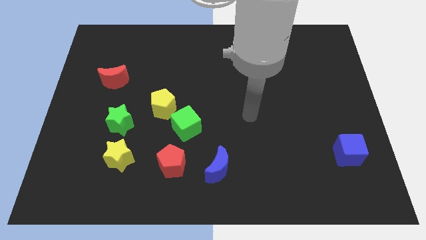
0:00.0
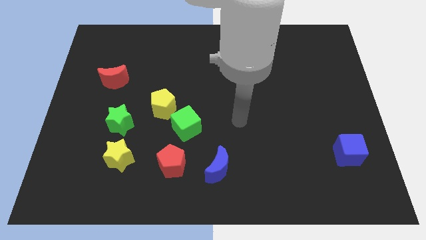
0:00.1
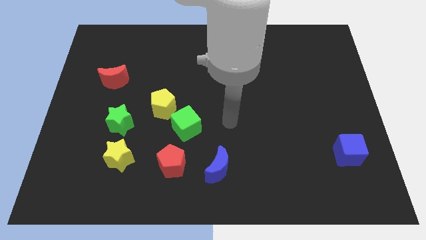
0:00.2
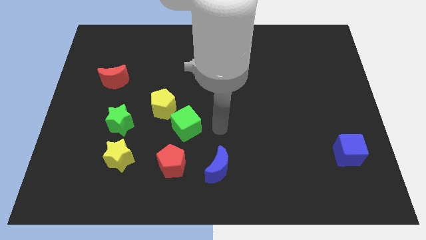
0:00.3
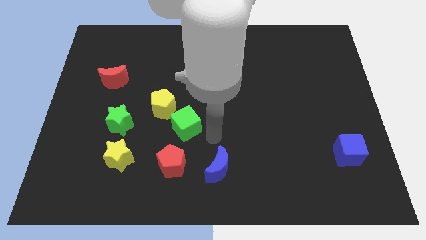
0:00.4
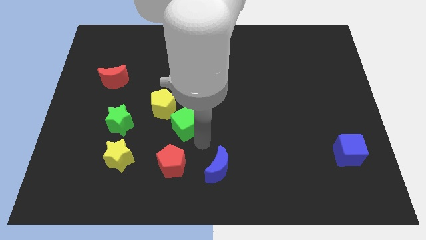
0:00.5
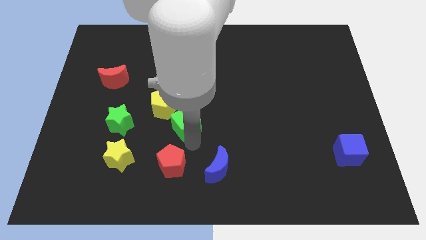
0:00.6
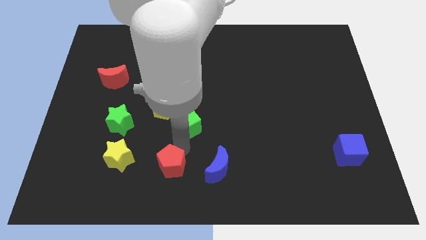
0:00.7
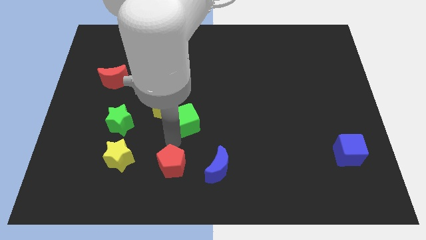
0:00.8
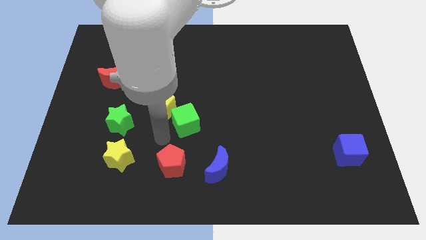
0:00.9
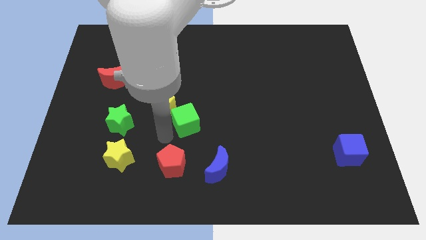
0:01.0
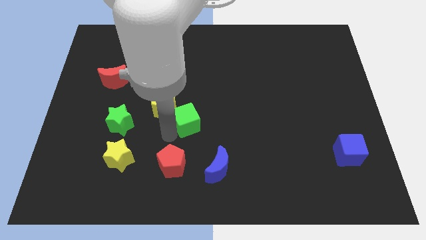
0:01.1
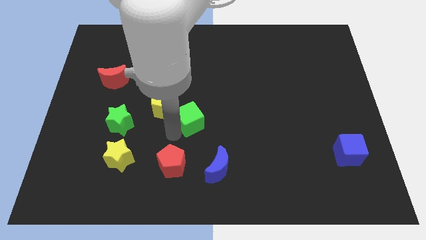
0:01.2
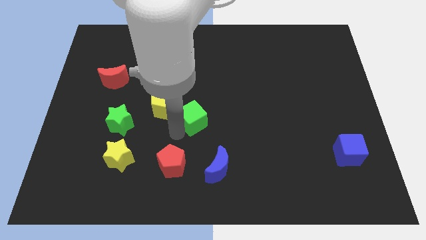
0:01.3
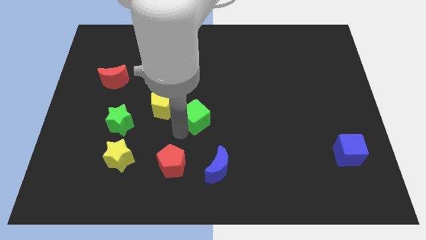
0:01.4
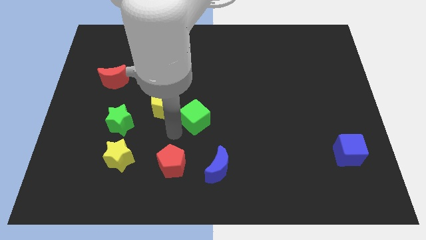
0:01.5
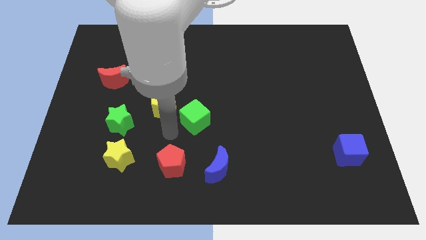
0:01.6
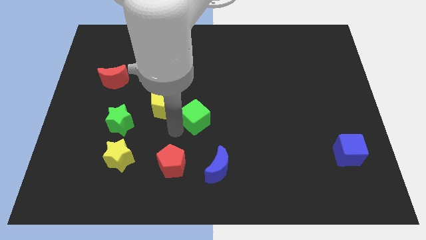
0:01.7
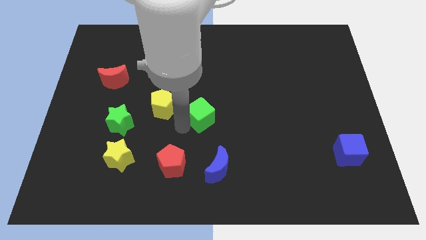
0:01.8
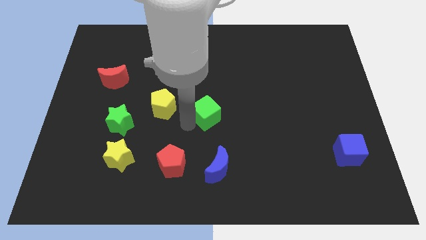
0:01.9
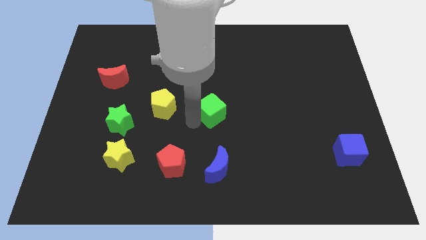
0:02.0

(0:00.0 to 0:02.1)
separate the green cube from the yellow pentagon and red pentagon

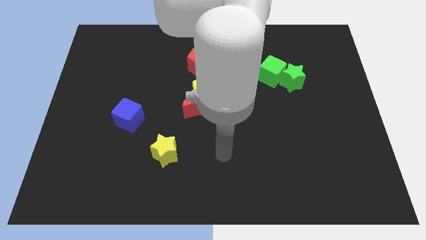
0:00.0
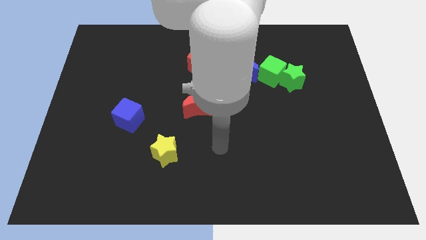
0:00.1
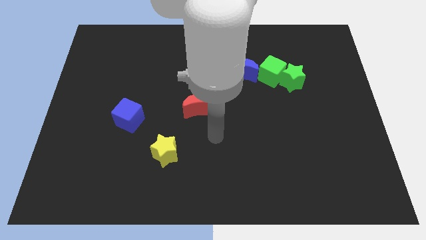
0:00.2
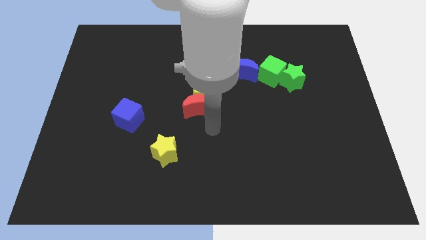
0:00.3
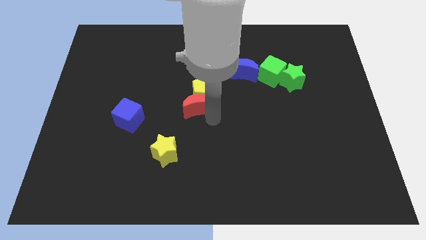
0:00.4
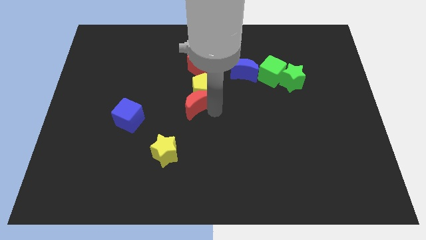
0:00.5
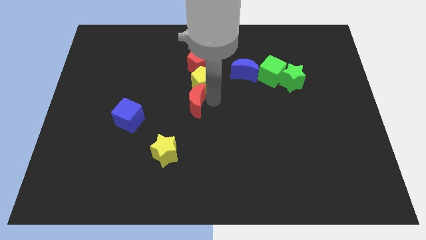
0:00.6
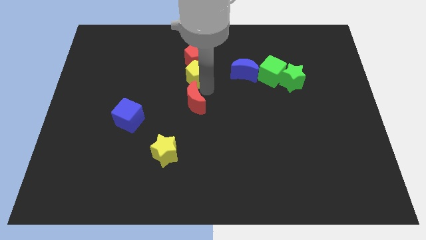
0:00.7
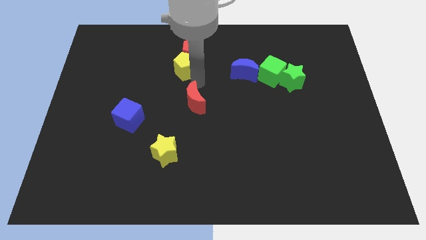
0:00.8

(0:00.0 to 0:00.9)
move the red moon away from the yellow pentagon

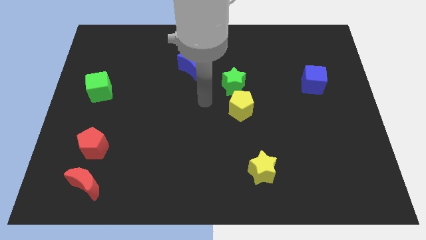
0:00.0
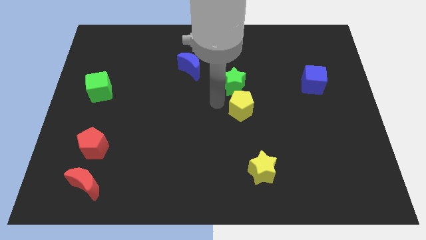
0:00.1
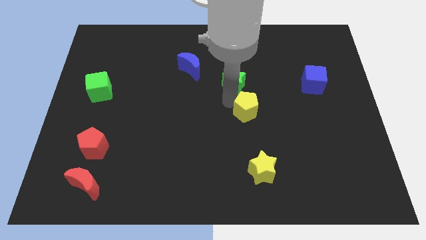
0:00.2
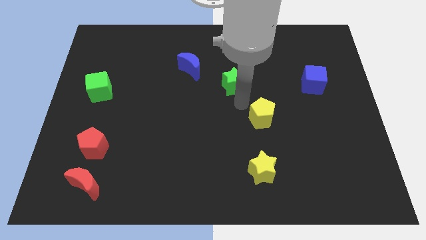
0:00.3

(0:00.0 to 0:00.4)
separate the green star from the yellow pentagon

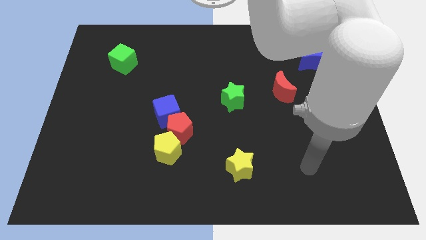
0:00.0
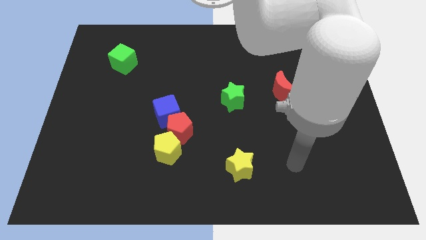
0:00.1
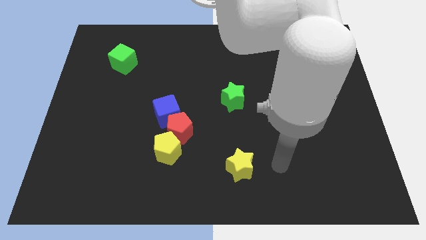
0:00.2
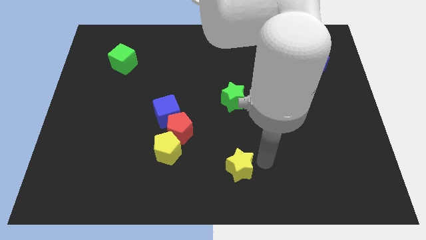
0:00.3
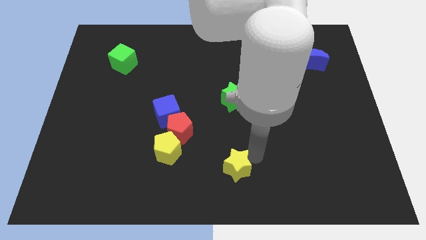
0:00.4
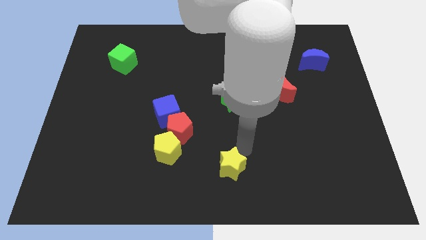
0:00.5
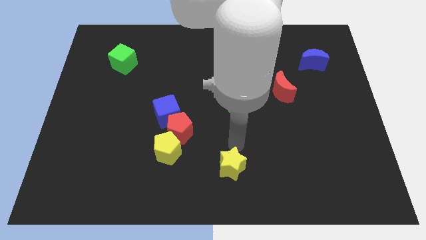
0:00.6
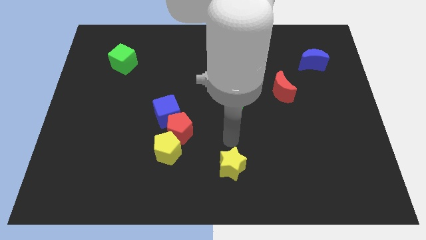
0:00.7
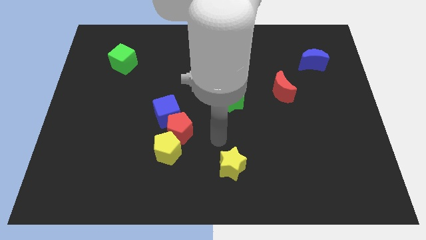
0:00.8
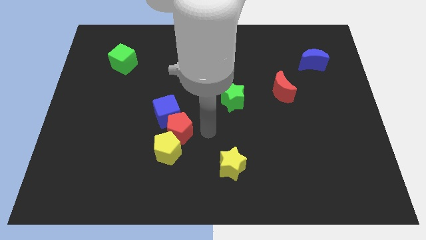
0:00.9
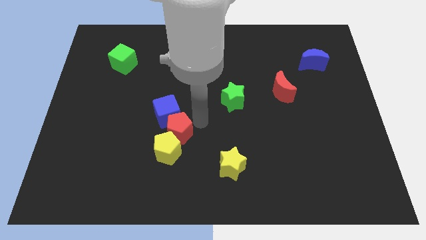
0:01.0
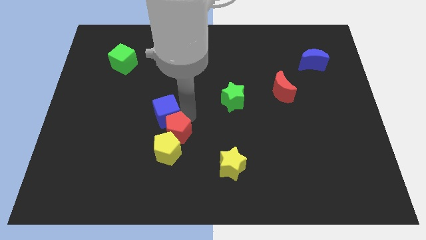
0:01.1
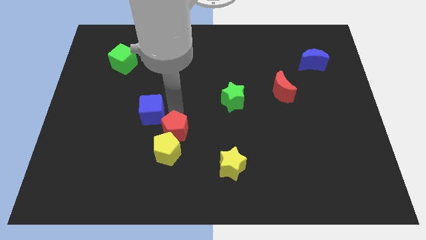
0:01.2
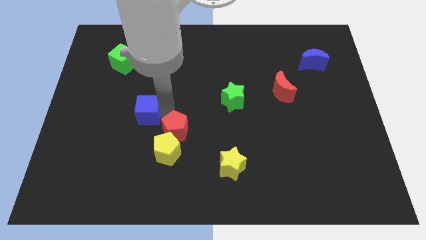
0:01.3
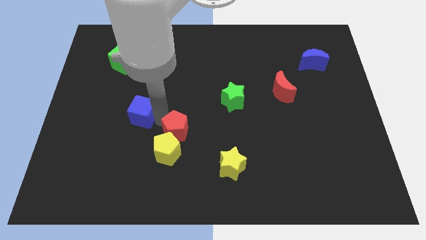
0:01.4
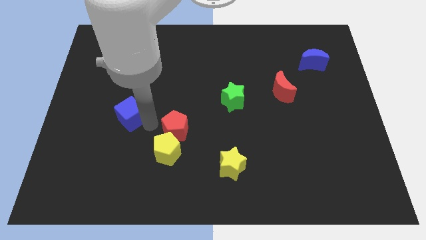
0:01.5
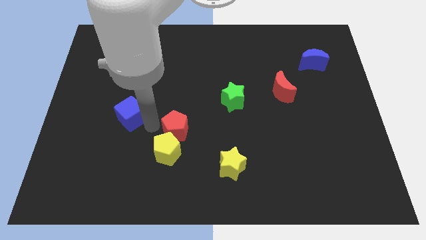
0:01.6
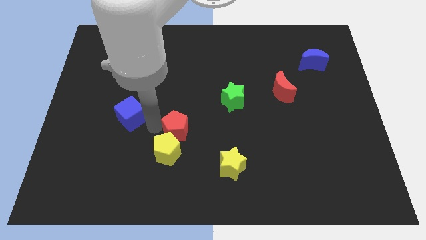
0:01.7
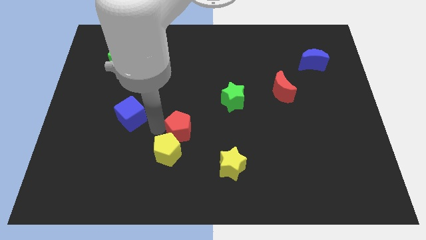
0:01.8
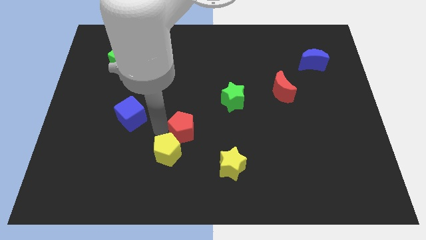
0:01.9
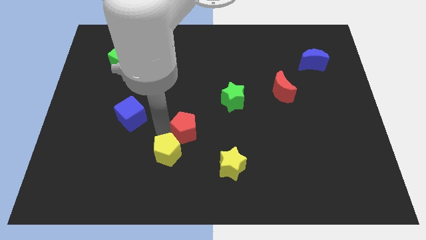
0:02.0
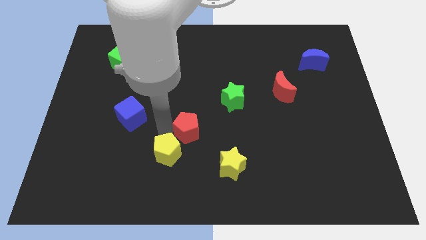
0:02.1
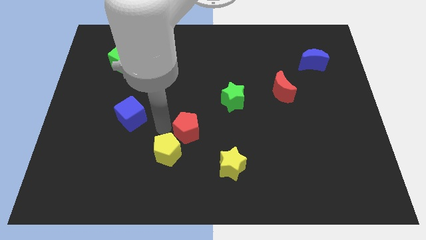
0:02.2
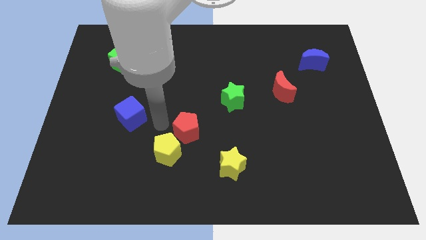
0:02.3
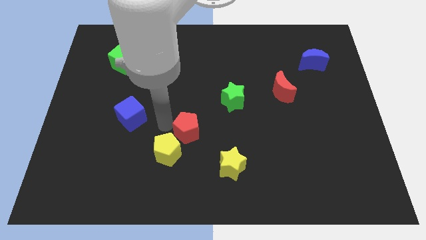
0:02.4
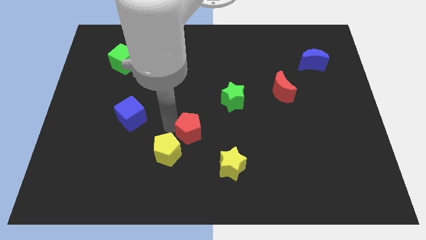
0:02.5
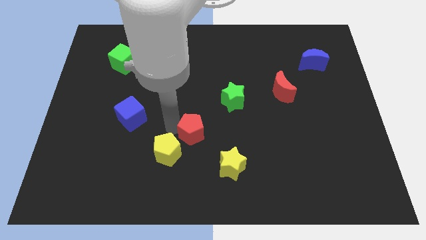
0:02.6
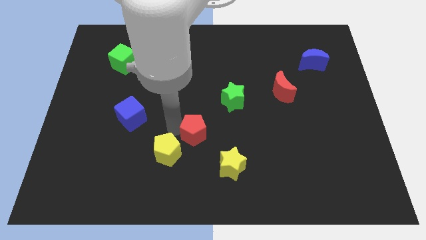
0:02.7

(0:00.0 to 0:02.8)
separate the red pentagon from the blue cube and yellow pentagon

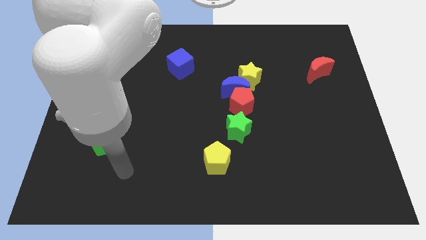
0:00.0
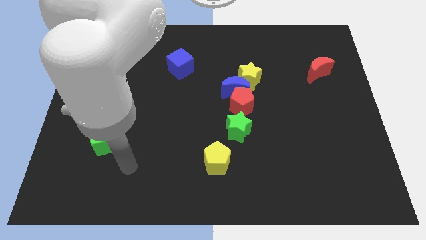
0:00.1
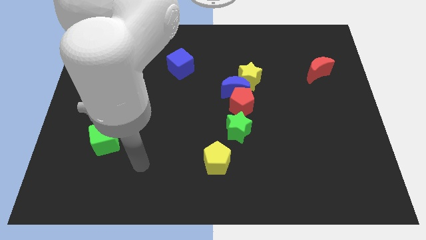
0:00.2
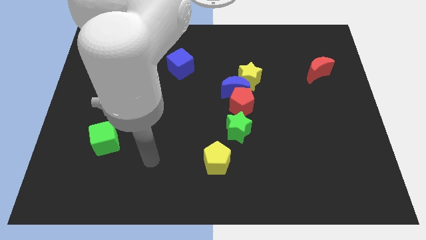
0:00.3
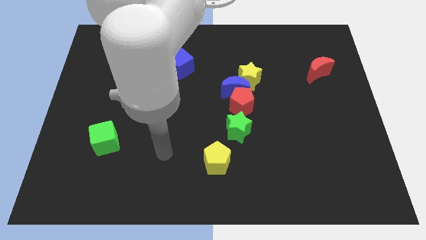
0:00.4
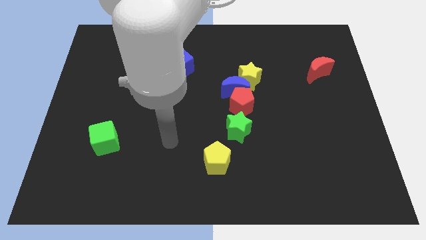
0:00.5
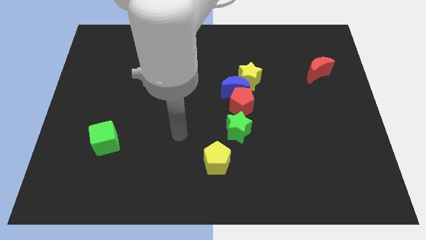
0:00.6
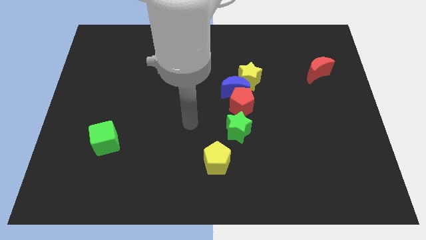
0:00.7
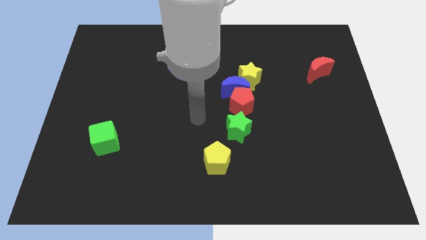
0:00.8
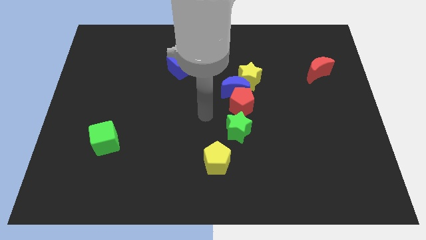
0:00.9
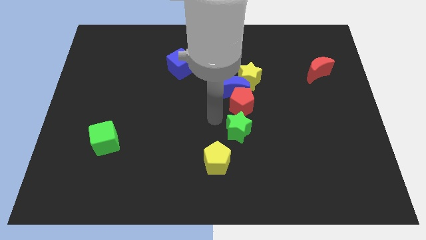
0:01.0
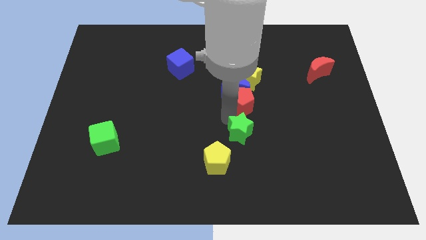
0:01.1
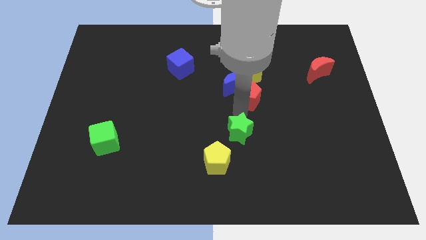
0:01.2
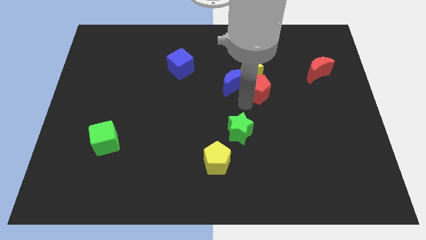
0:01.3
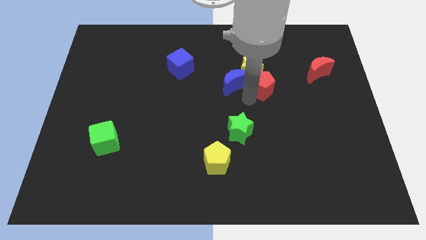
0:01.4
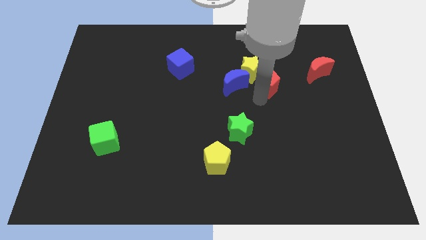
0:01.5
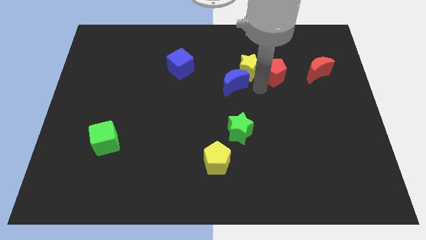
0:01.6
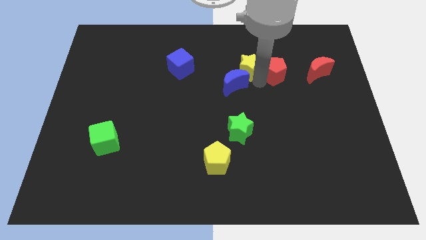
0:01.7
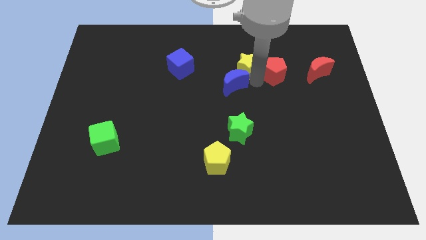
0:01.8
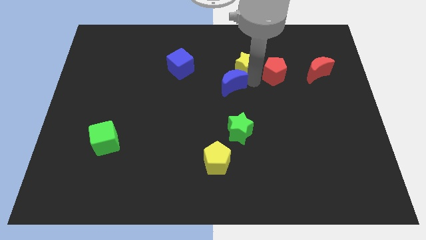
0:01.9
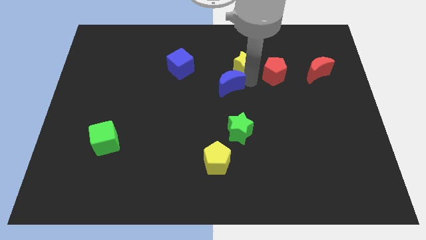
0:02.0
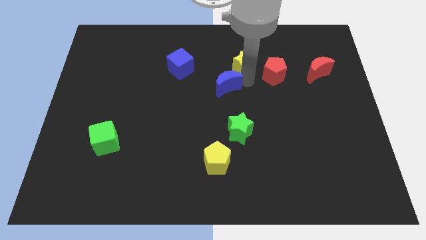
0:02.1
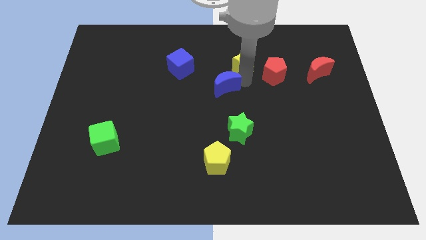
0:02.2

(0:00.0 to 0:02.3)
move the blue moon away from the red pentagon and yellow star

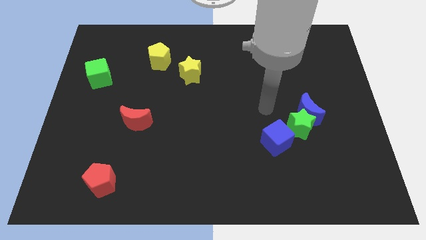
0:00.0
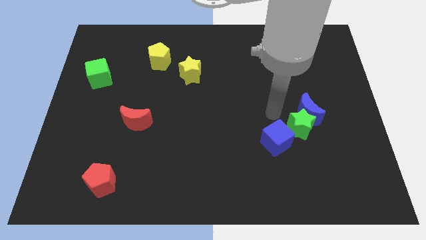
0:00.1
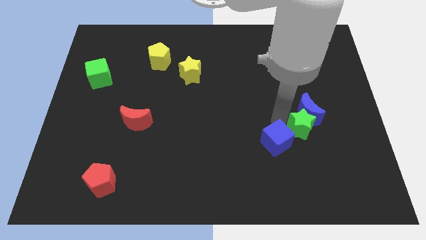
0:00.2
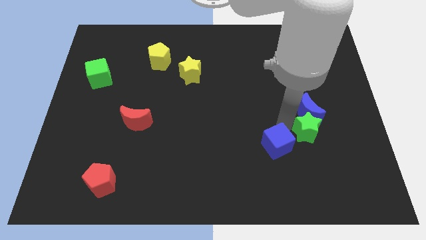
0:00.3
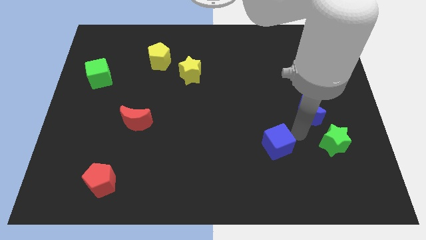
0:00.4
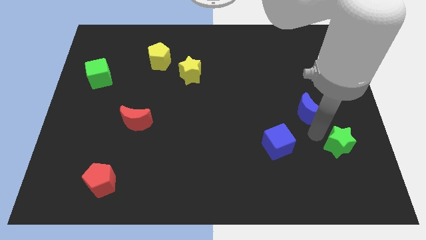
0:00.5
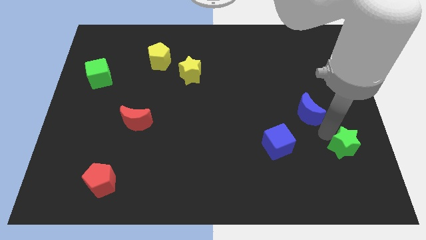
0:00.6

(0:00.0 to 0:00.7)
separate the blue moon from the green star
